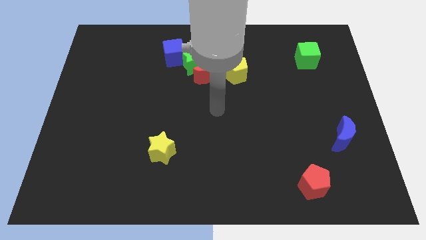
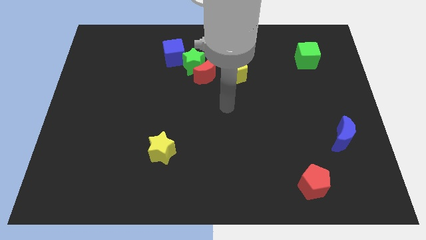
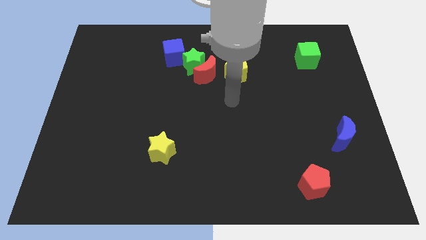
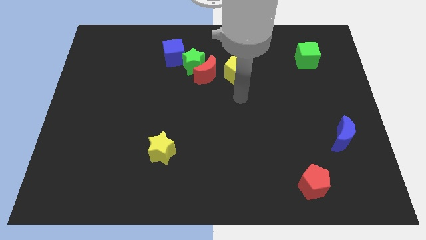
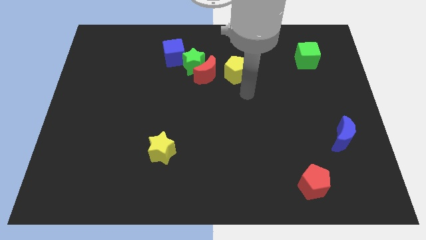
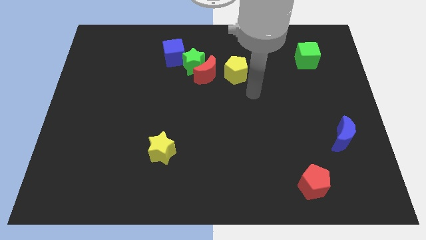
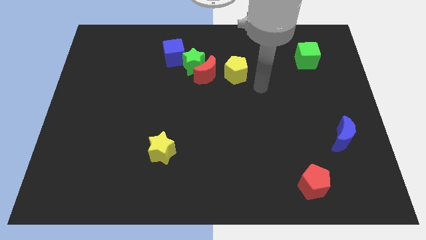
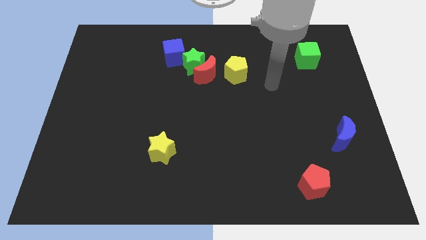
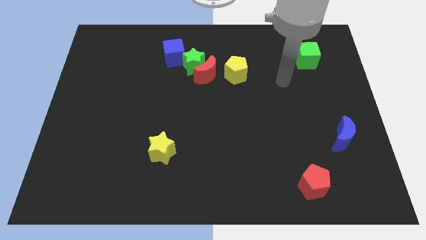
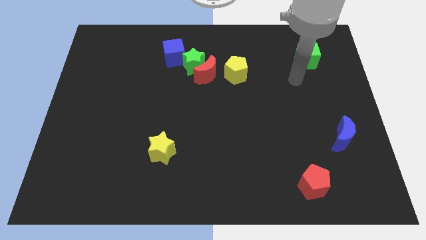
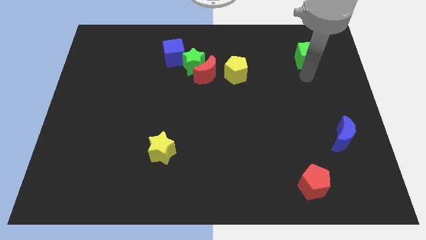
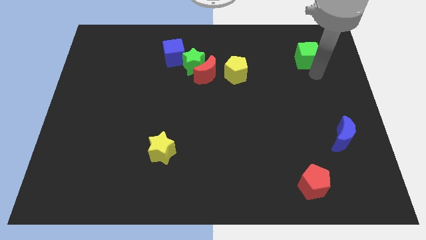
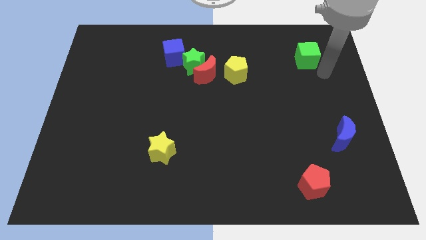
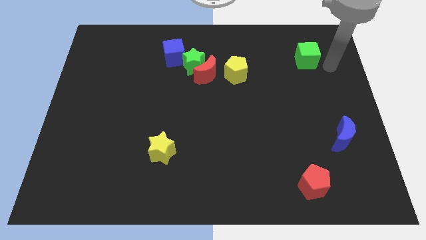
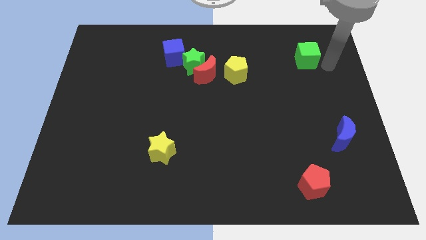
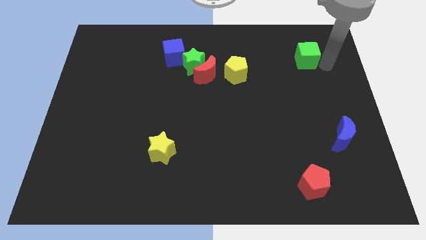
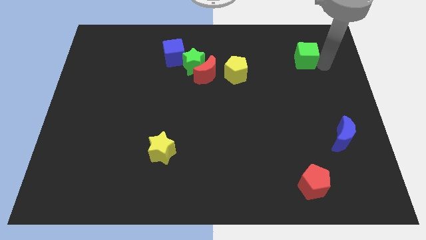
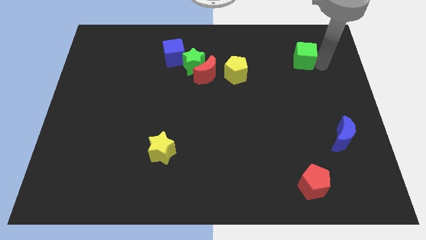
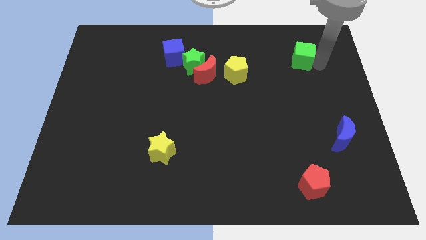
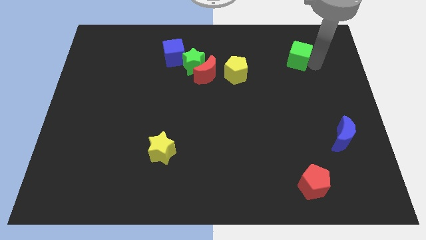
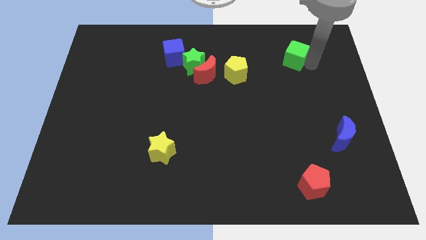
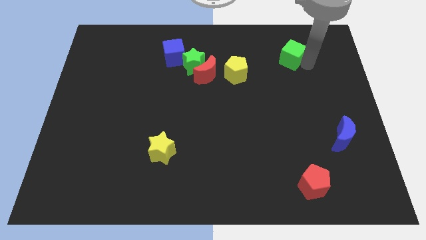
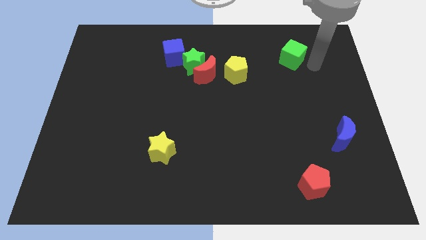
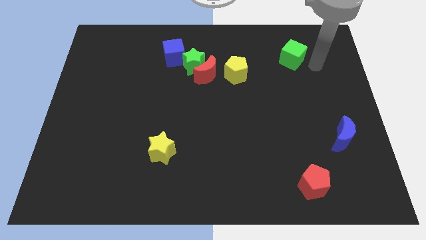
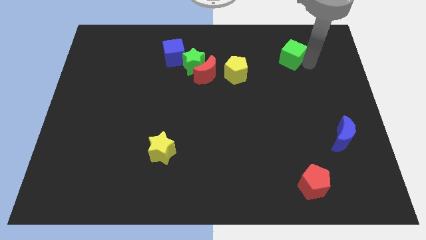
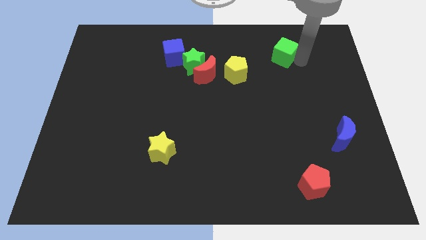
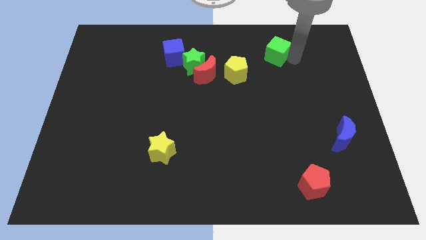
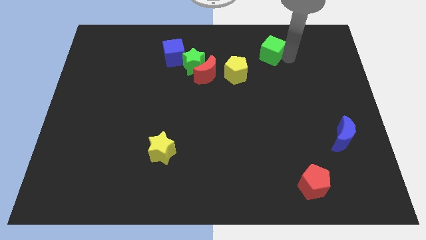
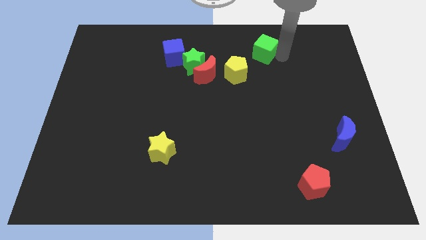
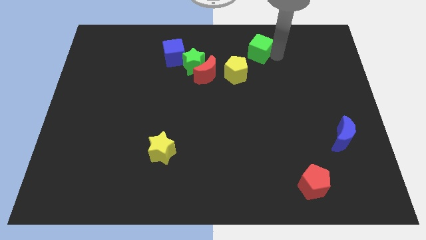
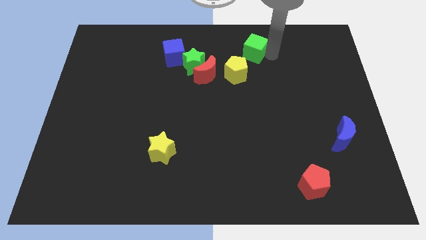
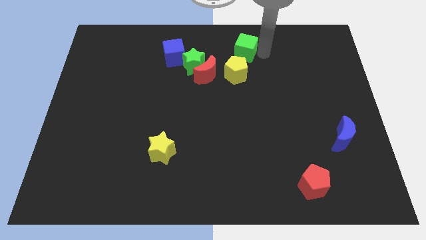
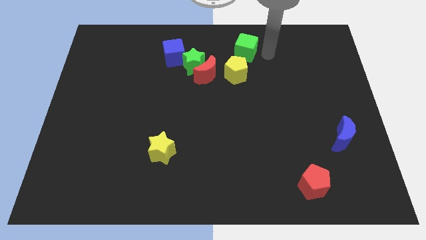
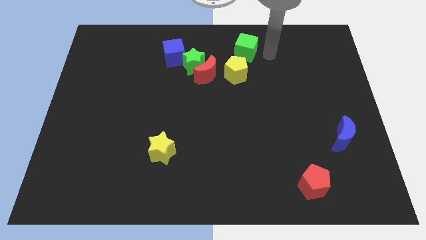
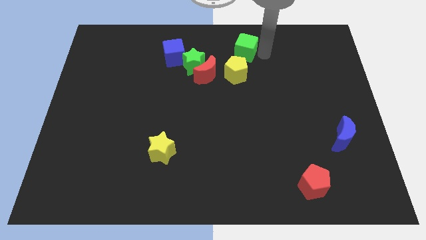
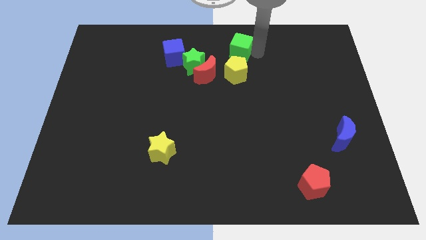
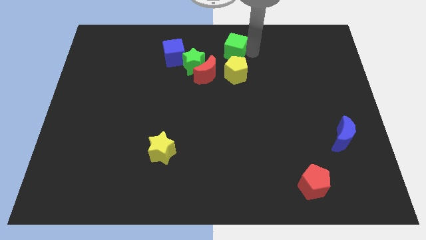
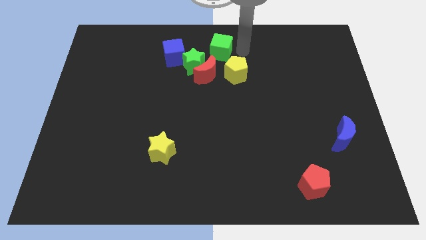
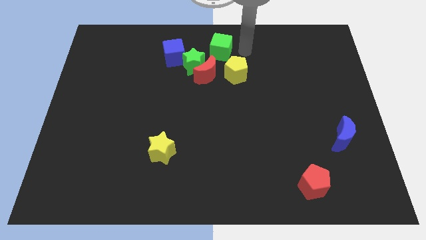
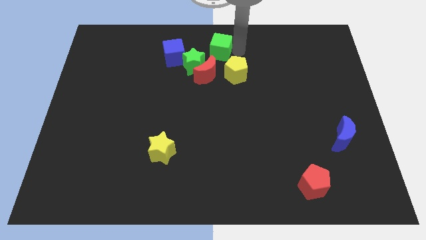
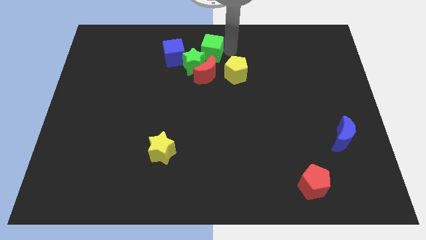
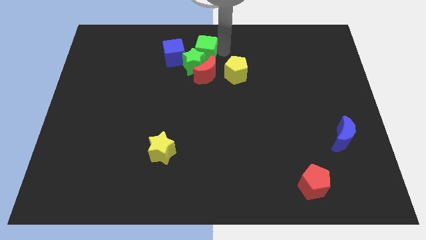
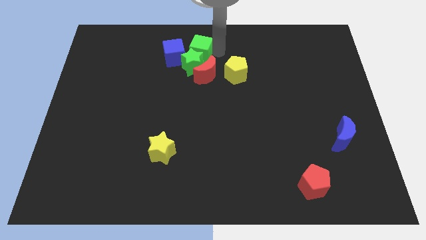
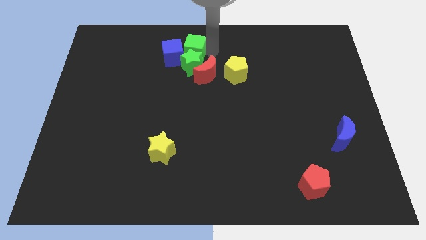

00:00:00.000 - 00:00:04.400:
push the green cube to the blue cube

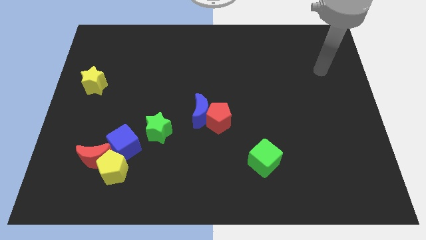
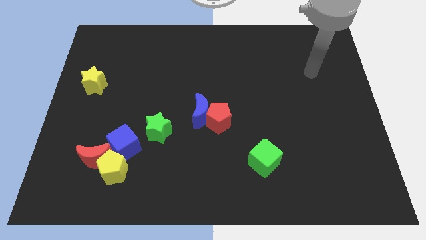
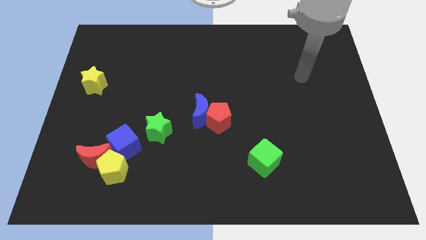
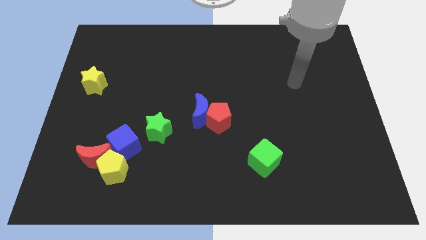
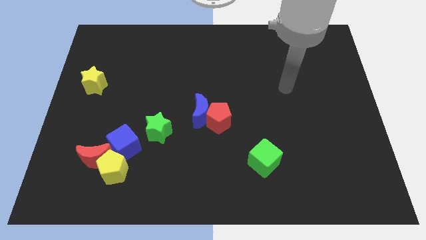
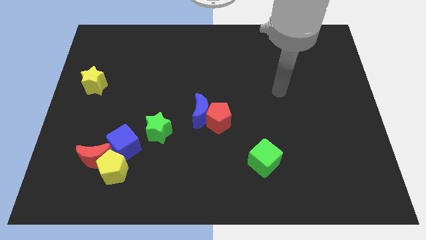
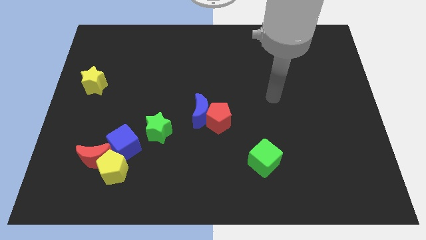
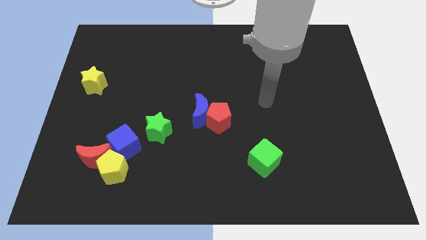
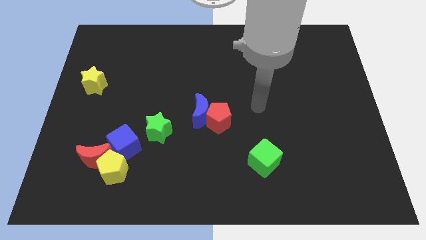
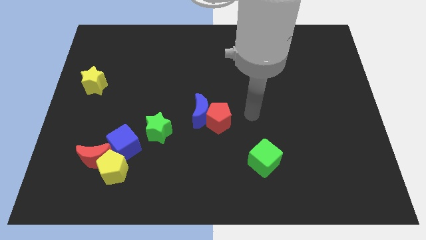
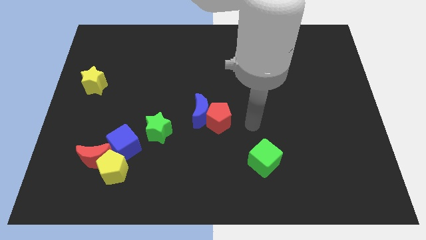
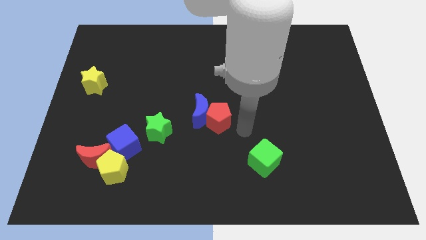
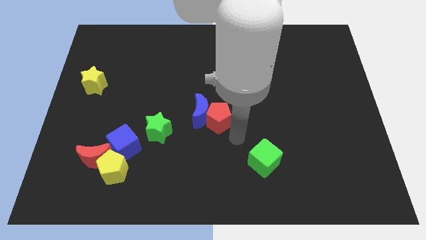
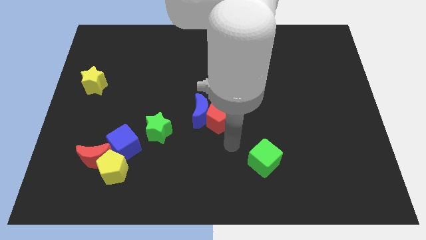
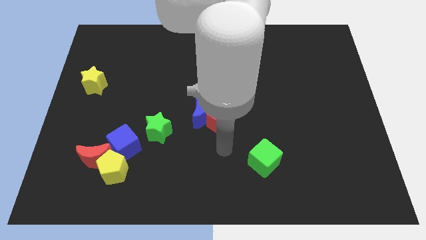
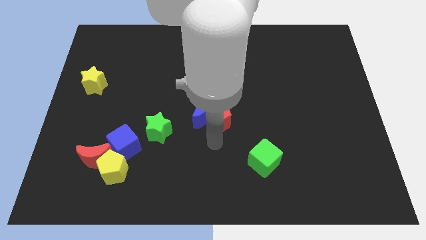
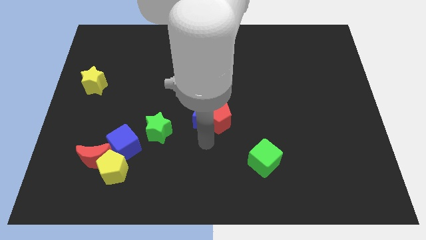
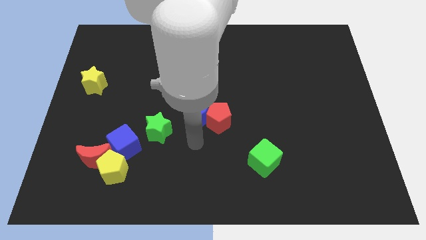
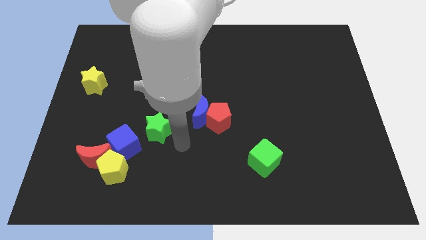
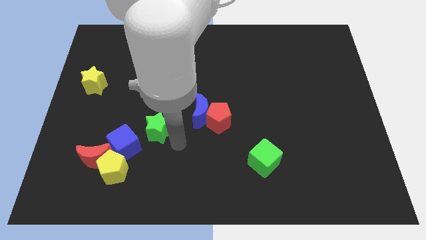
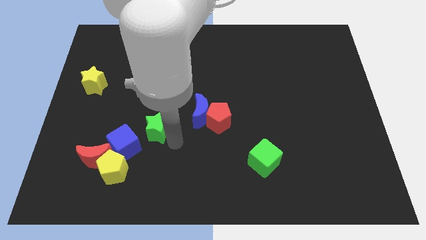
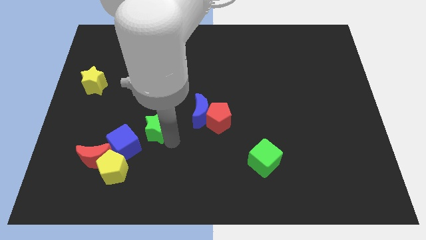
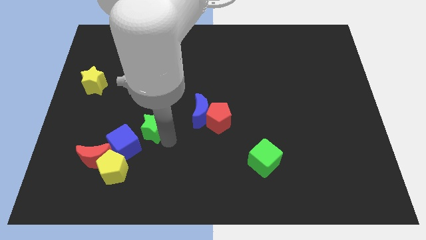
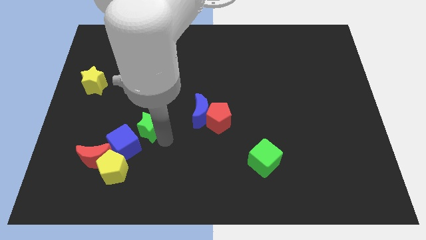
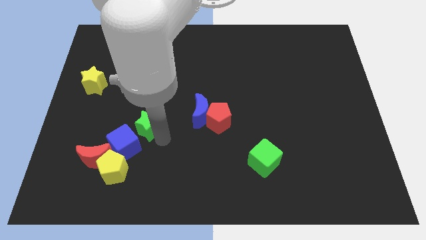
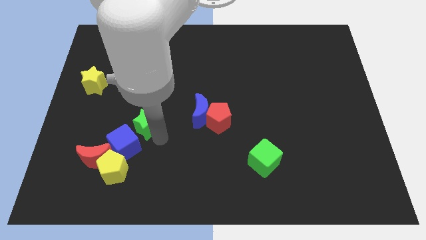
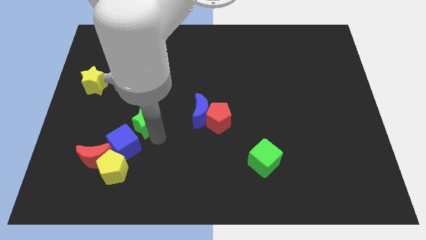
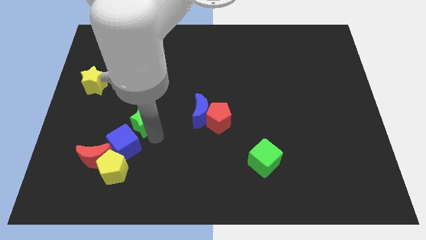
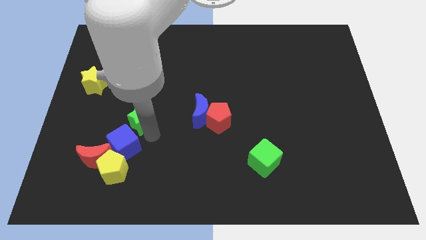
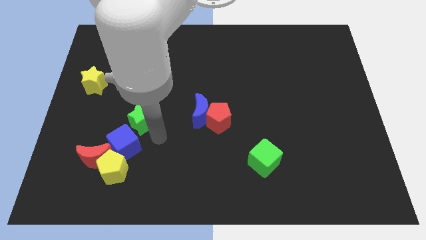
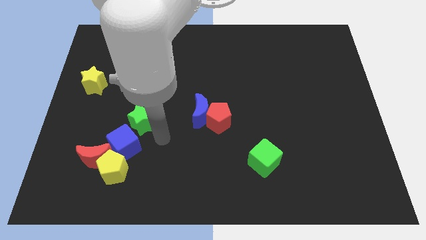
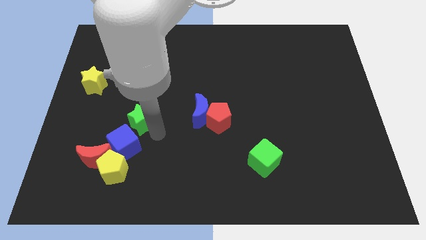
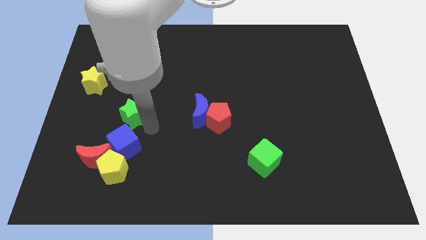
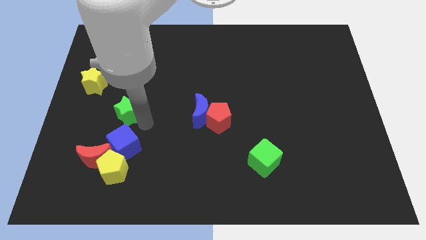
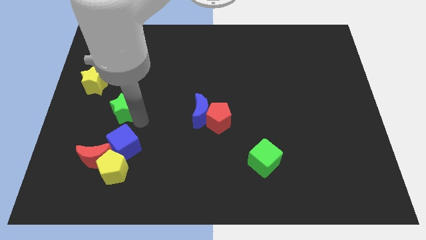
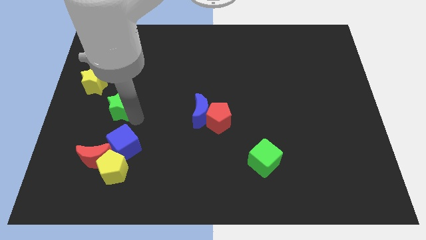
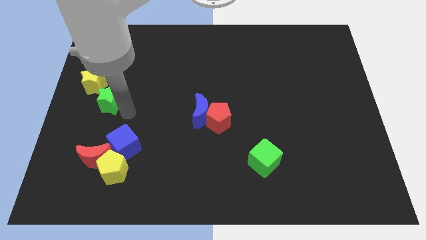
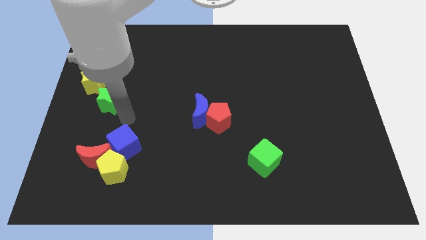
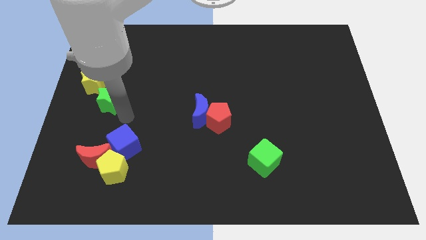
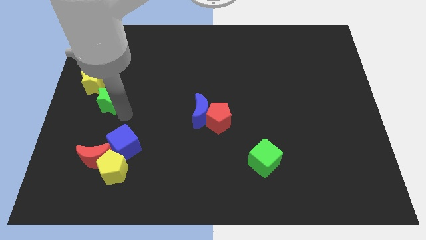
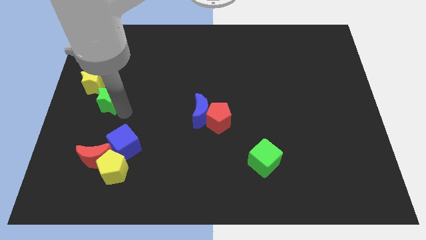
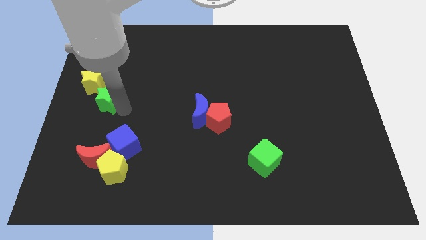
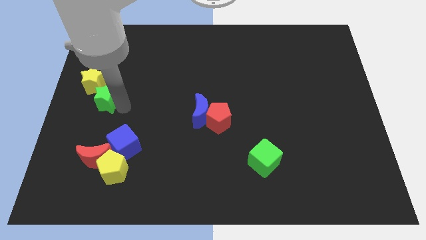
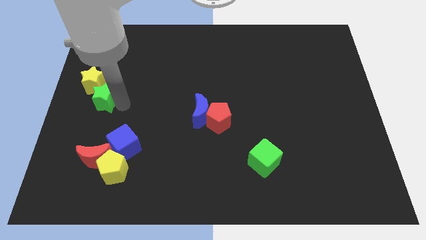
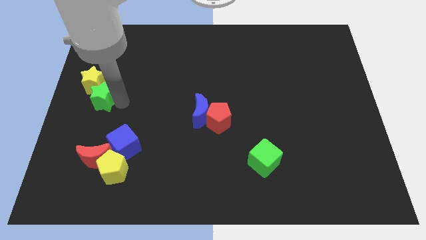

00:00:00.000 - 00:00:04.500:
move the green star towards the yellow star
